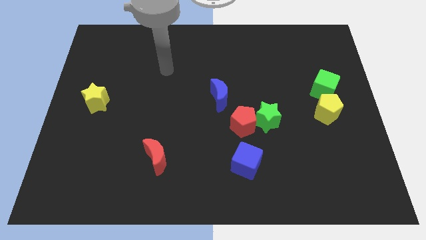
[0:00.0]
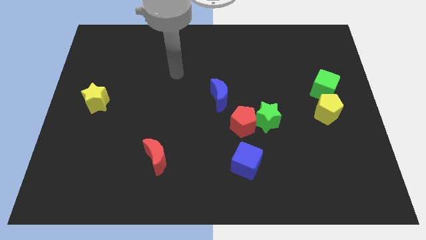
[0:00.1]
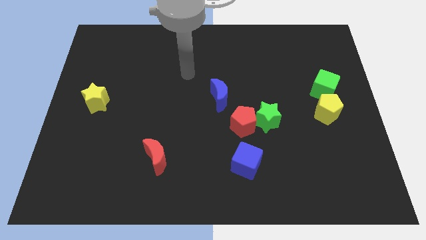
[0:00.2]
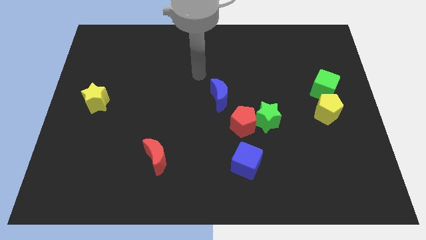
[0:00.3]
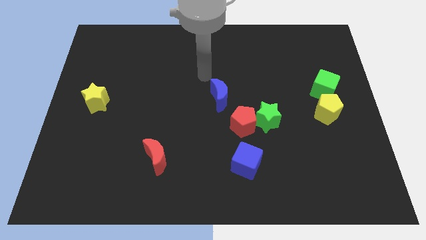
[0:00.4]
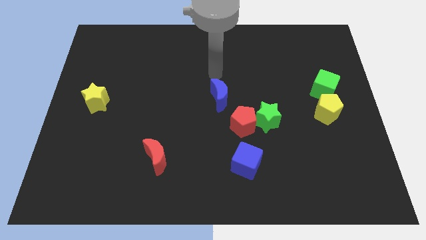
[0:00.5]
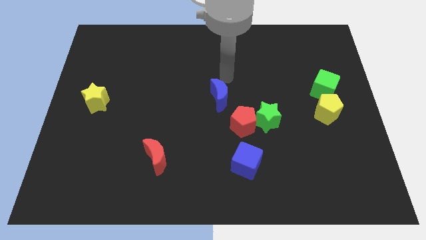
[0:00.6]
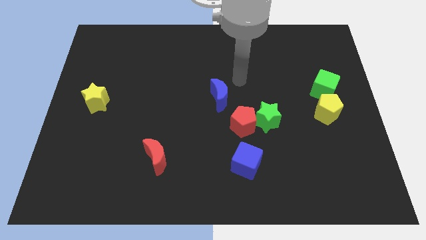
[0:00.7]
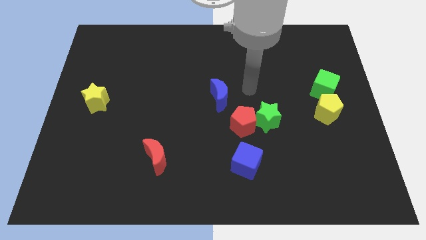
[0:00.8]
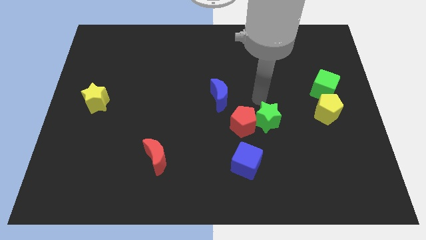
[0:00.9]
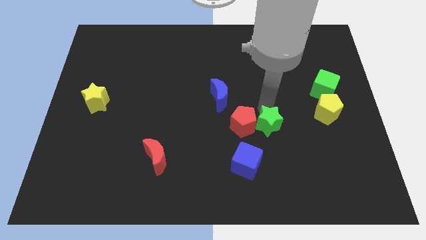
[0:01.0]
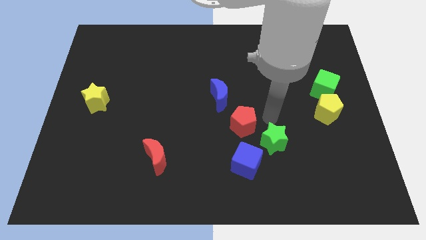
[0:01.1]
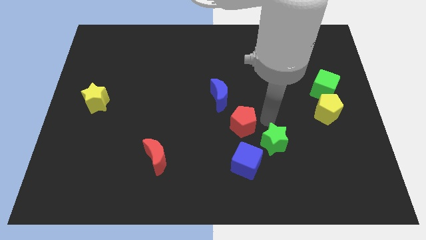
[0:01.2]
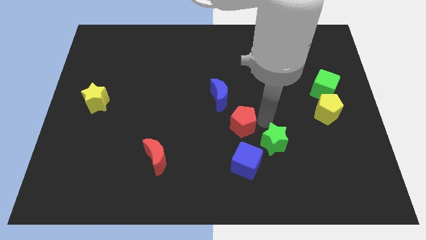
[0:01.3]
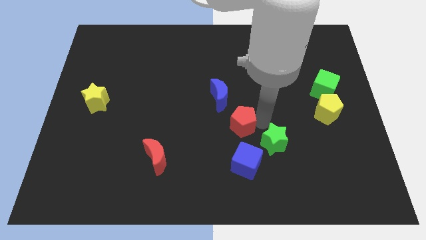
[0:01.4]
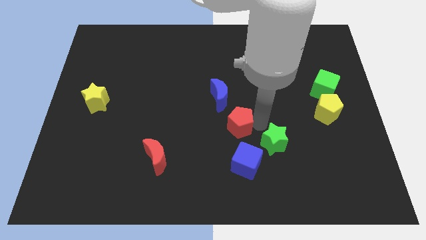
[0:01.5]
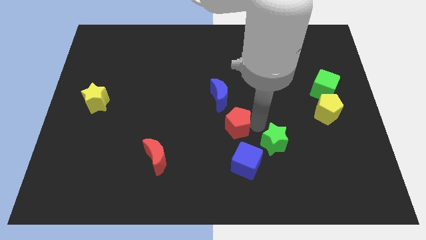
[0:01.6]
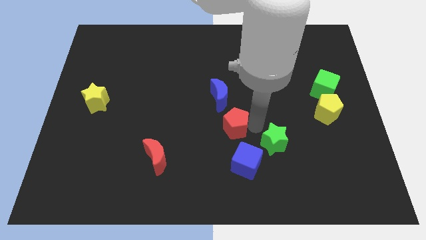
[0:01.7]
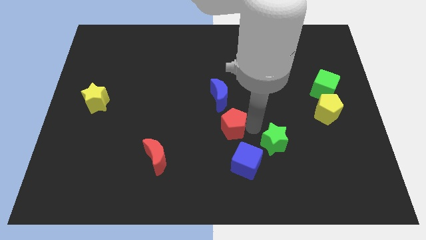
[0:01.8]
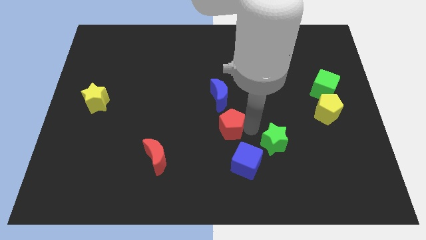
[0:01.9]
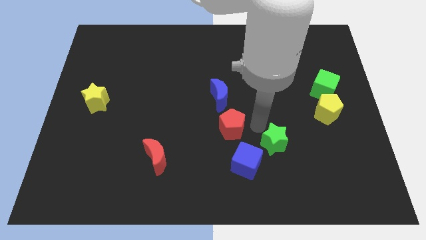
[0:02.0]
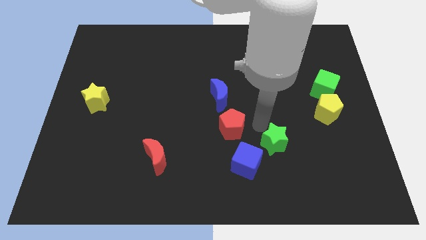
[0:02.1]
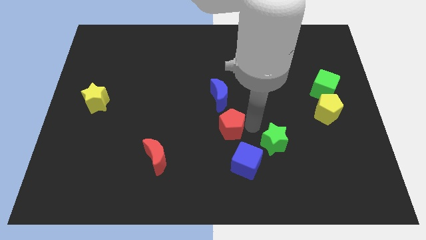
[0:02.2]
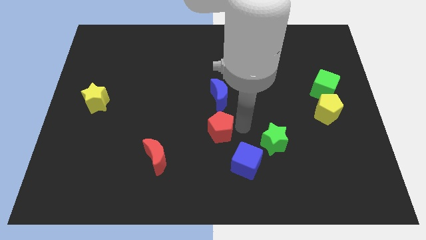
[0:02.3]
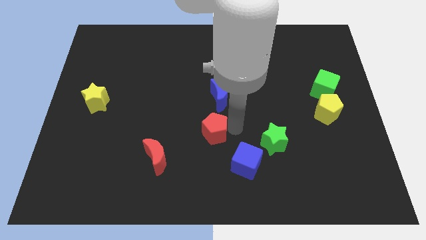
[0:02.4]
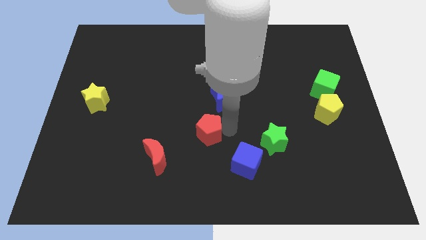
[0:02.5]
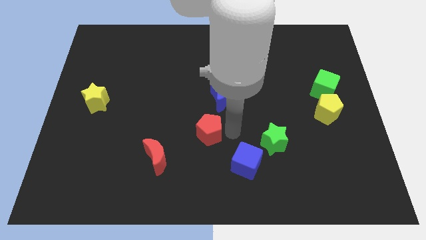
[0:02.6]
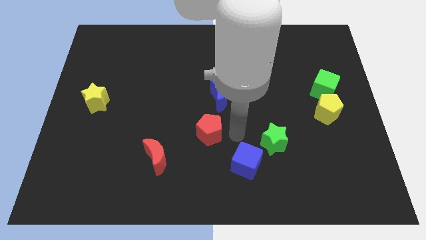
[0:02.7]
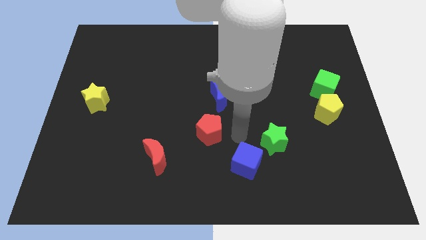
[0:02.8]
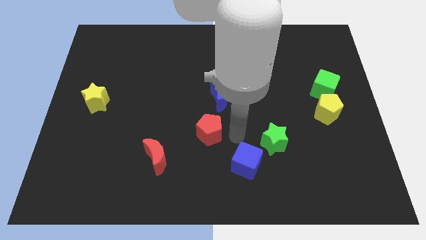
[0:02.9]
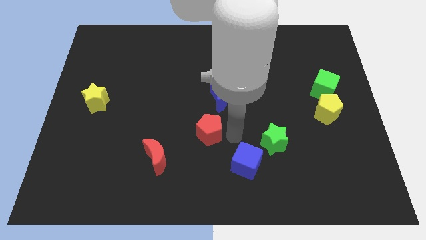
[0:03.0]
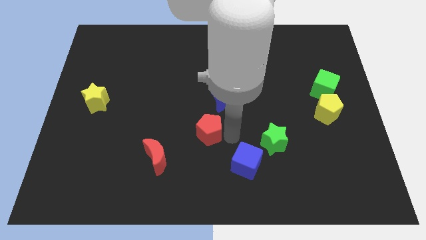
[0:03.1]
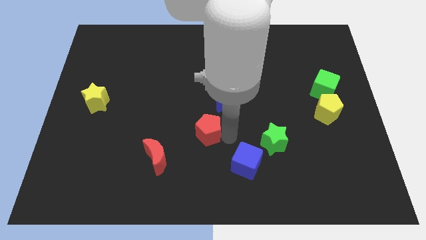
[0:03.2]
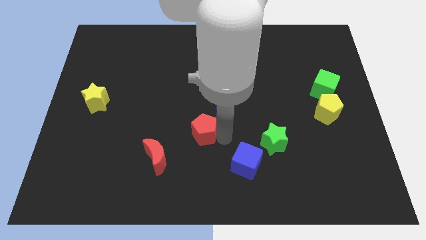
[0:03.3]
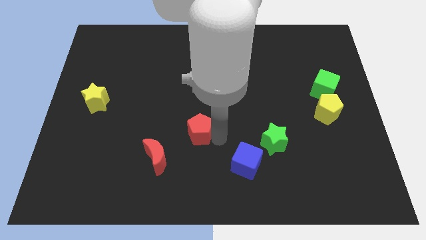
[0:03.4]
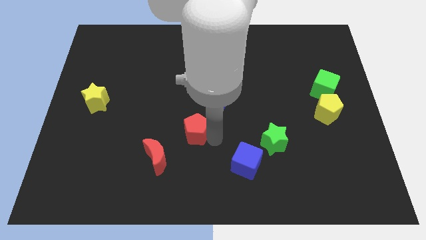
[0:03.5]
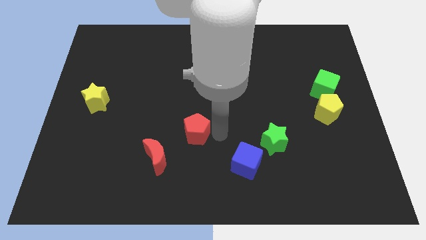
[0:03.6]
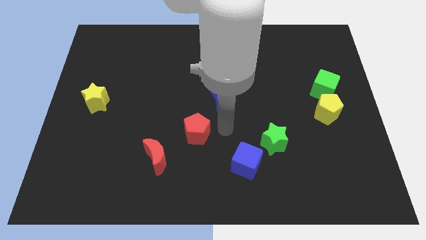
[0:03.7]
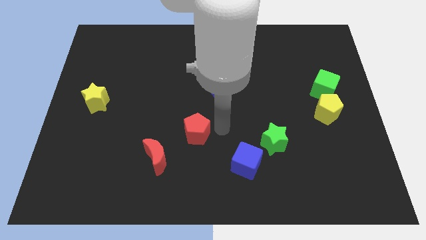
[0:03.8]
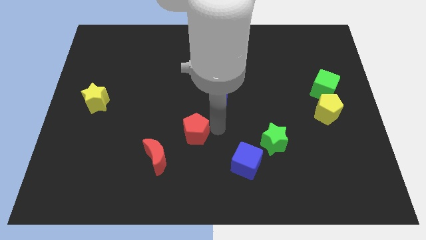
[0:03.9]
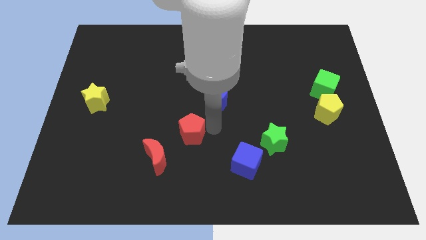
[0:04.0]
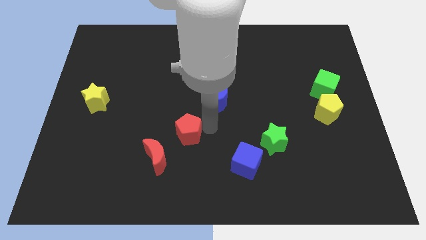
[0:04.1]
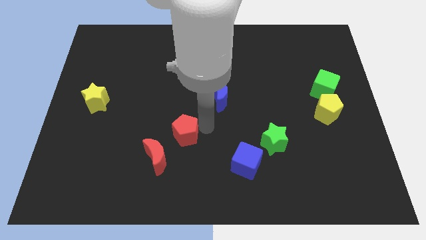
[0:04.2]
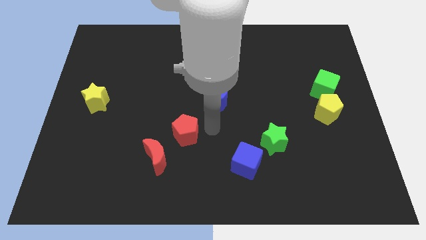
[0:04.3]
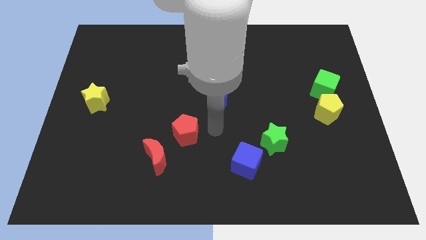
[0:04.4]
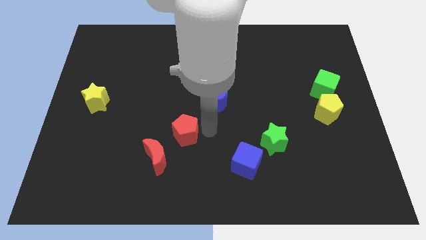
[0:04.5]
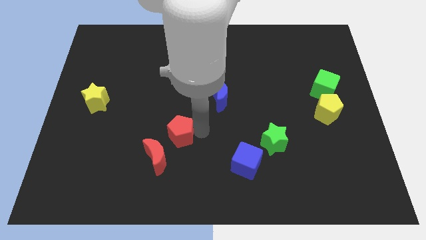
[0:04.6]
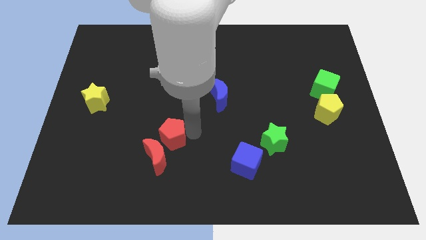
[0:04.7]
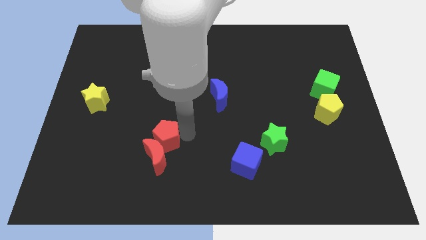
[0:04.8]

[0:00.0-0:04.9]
push the red pentagon to the top left of the red moon

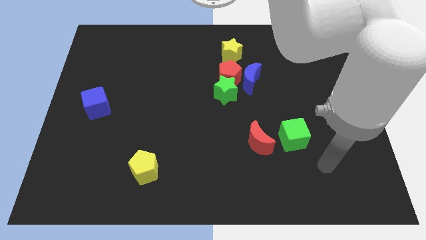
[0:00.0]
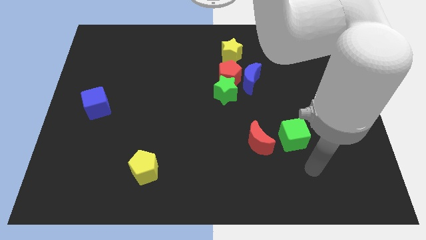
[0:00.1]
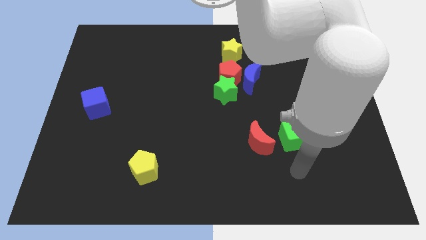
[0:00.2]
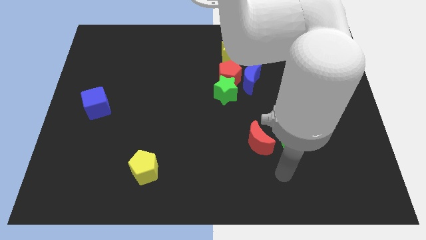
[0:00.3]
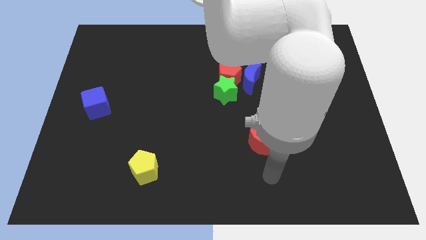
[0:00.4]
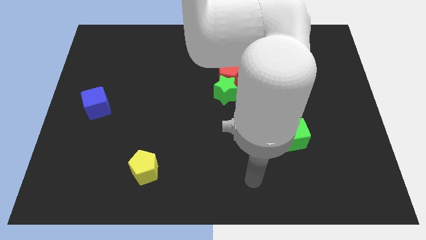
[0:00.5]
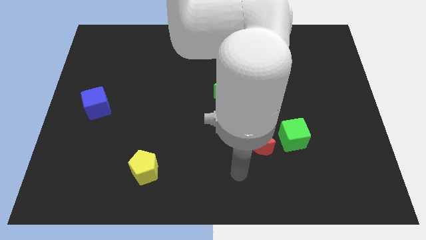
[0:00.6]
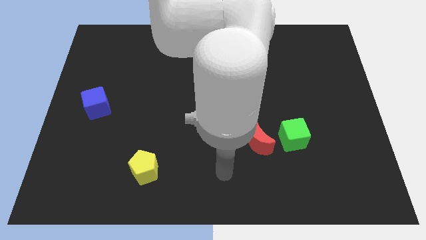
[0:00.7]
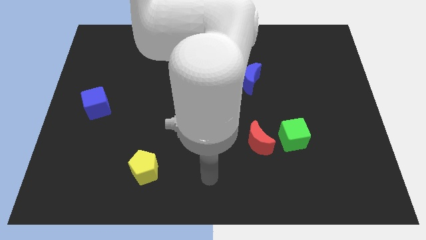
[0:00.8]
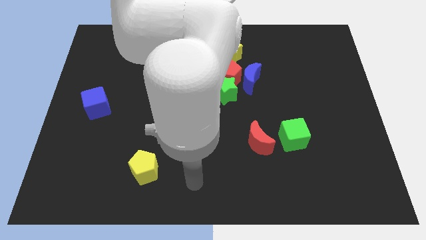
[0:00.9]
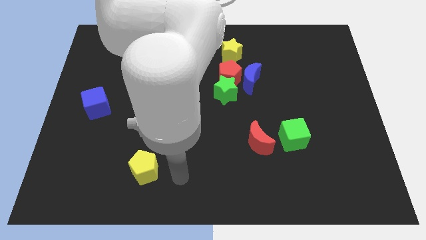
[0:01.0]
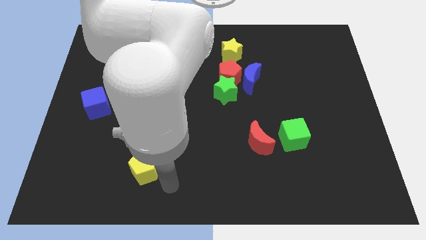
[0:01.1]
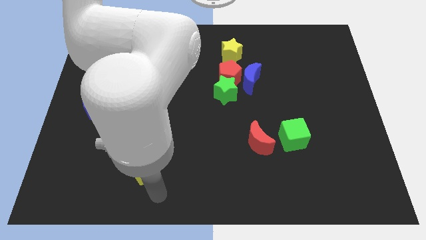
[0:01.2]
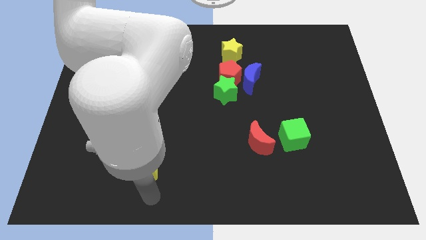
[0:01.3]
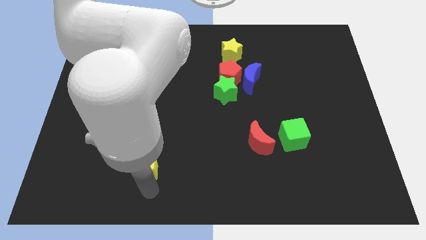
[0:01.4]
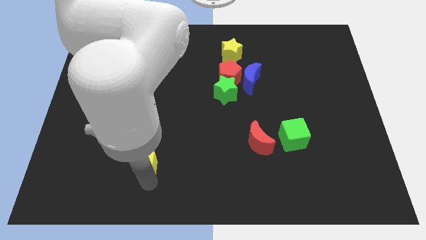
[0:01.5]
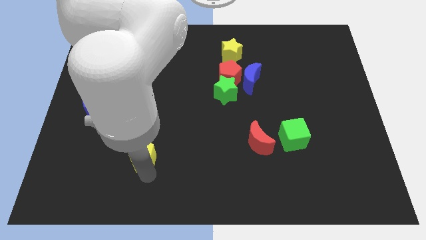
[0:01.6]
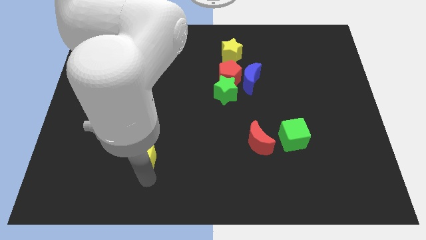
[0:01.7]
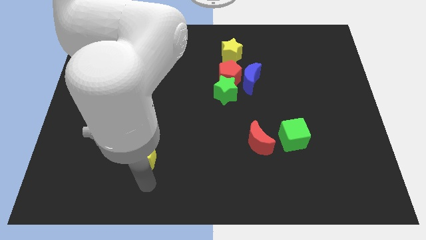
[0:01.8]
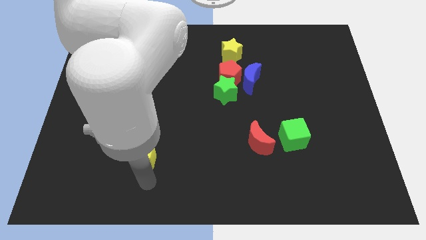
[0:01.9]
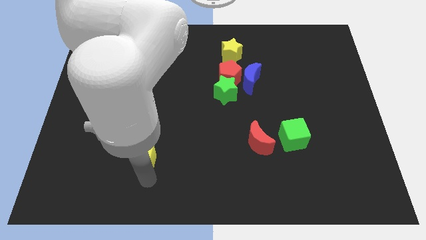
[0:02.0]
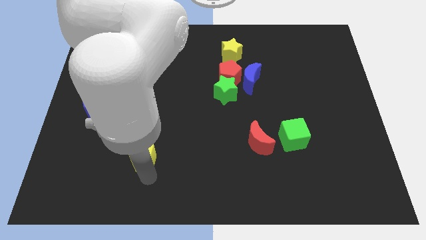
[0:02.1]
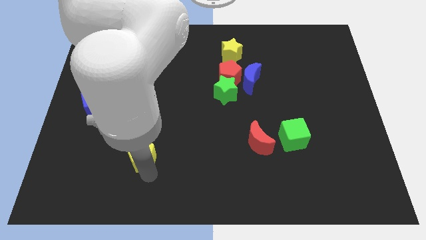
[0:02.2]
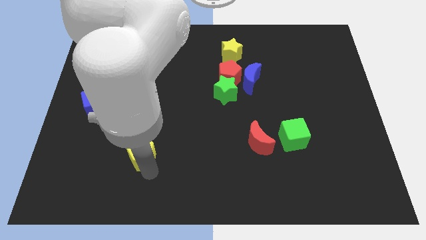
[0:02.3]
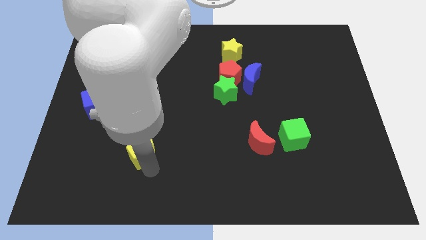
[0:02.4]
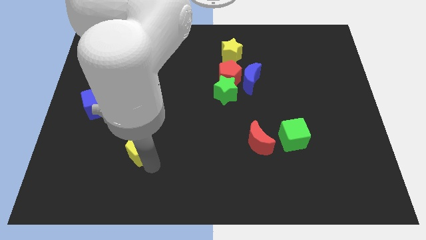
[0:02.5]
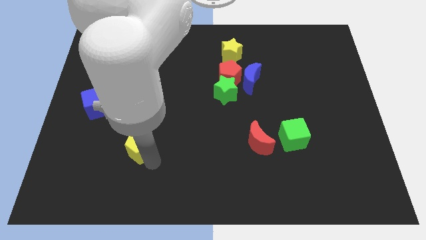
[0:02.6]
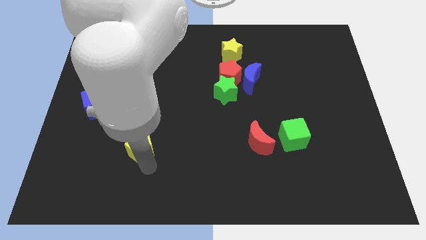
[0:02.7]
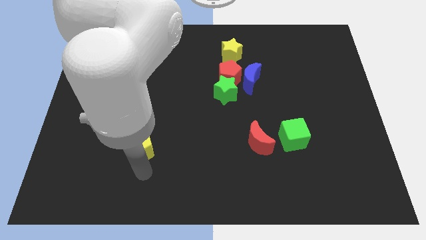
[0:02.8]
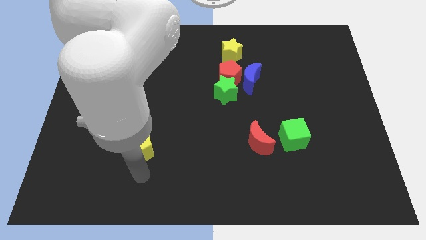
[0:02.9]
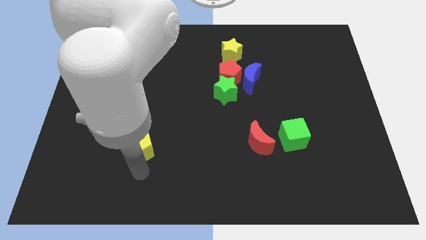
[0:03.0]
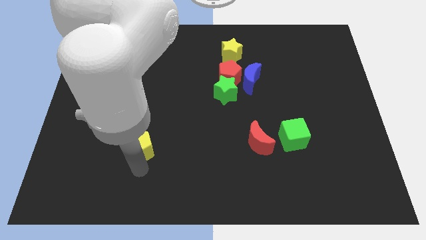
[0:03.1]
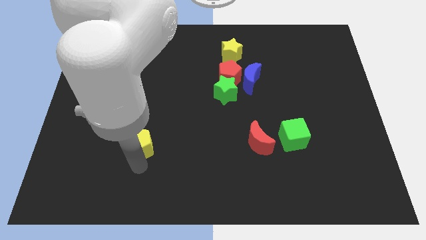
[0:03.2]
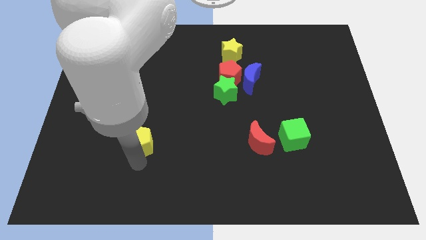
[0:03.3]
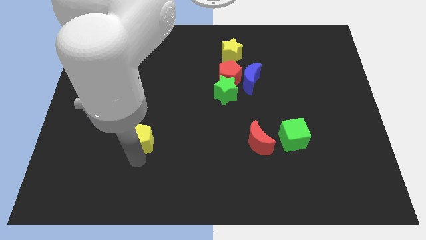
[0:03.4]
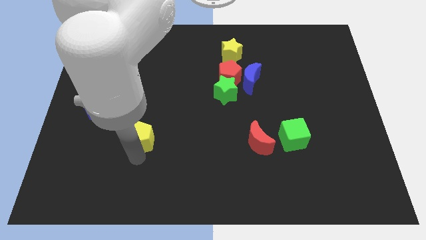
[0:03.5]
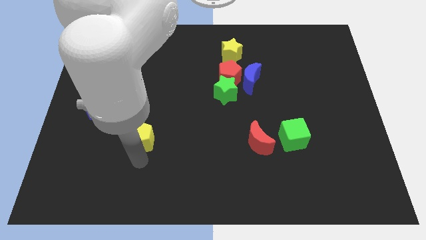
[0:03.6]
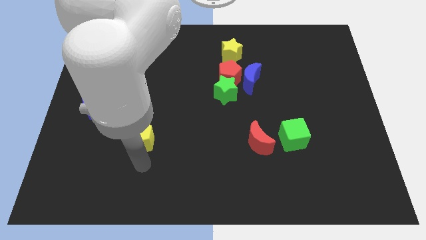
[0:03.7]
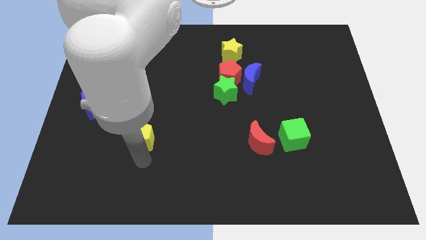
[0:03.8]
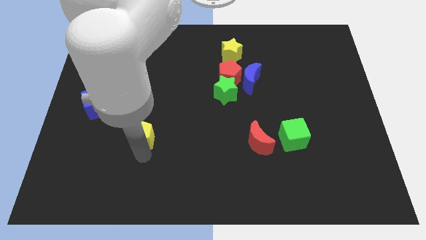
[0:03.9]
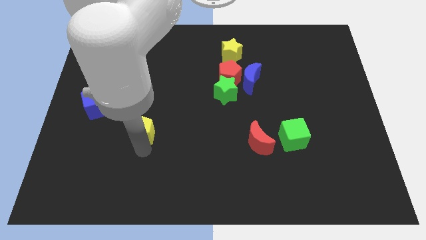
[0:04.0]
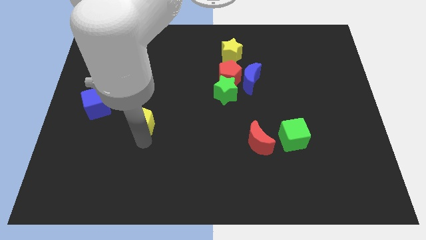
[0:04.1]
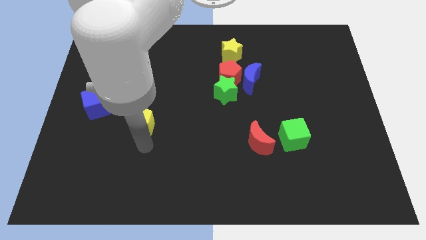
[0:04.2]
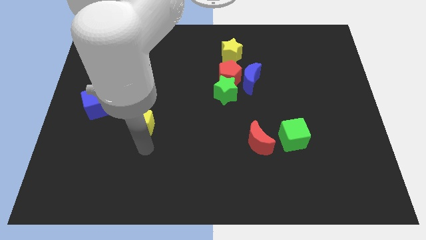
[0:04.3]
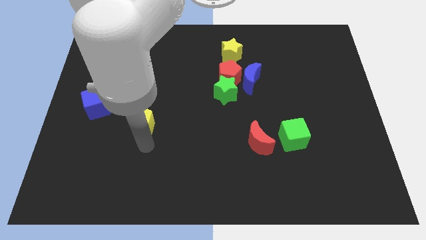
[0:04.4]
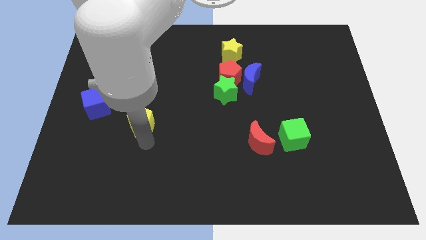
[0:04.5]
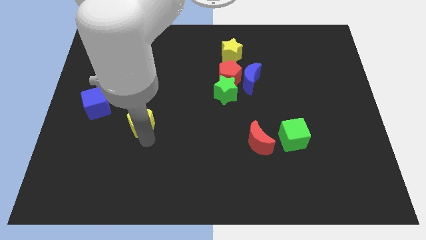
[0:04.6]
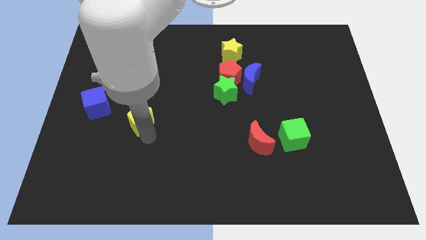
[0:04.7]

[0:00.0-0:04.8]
move the yellow pentagon to the right side of the blue cube
